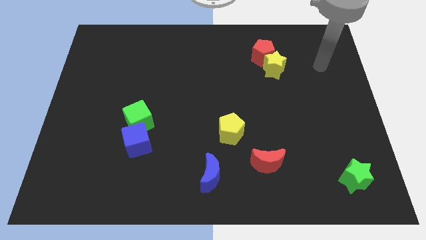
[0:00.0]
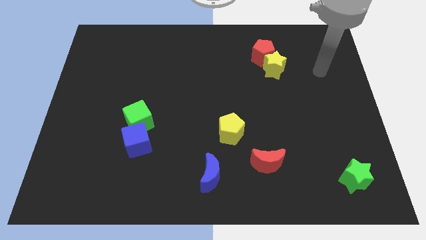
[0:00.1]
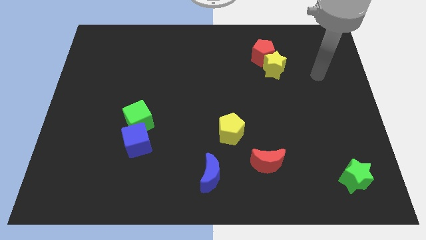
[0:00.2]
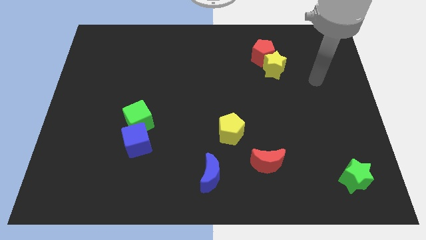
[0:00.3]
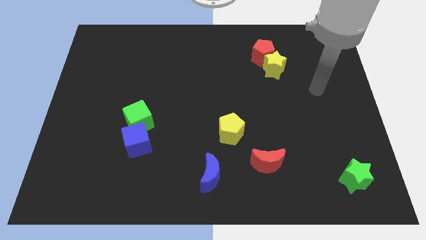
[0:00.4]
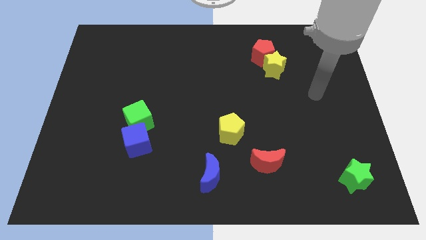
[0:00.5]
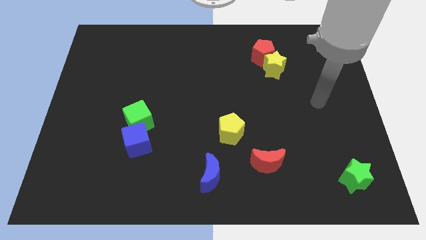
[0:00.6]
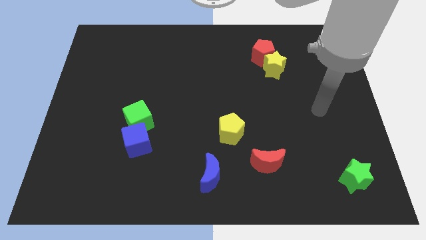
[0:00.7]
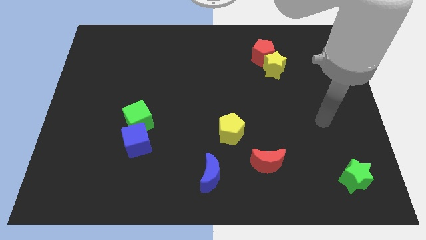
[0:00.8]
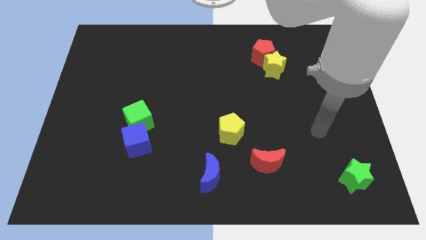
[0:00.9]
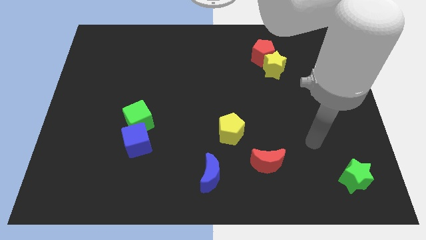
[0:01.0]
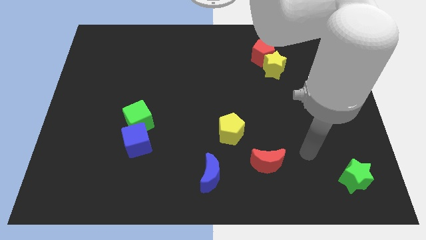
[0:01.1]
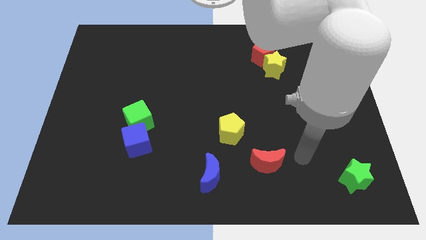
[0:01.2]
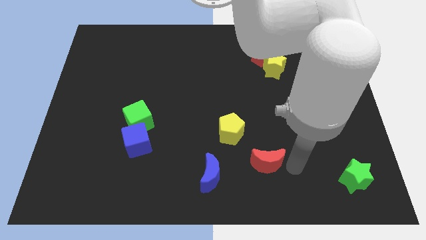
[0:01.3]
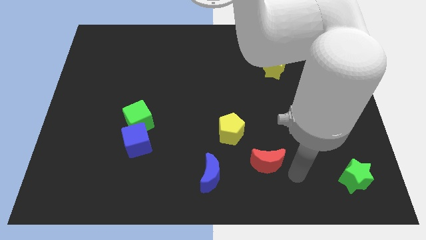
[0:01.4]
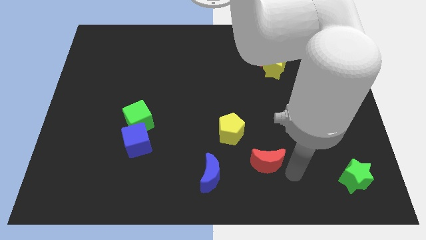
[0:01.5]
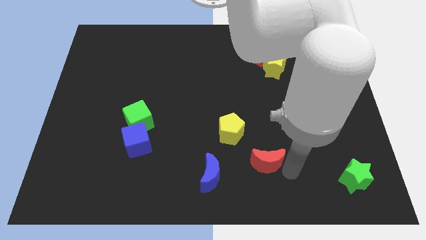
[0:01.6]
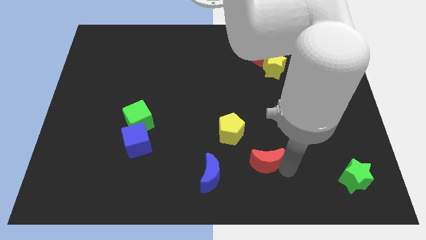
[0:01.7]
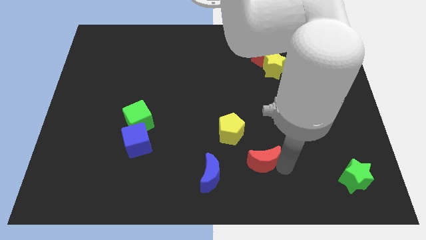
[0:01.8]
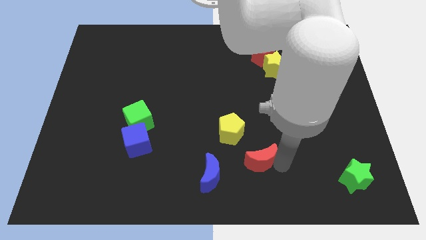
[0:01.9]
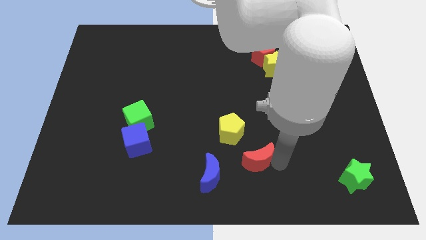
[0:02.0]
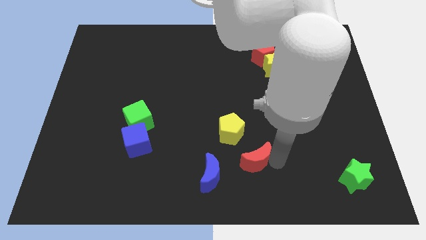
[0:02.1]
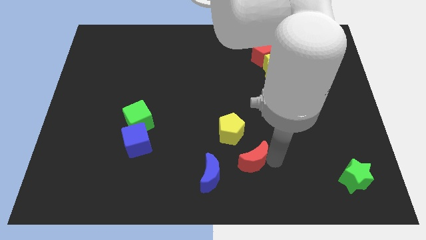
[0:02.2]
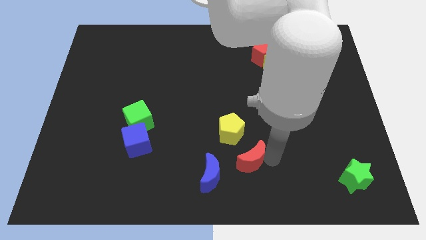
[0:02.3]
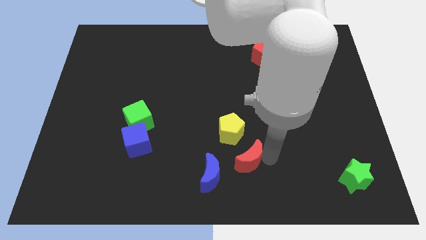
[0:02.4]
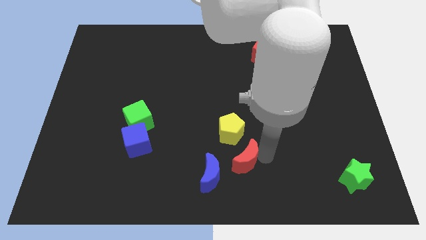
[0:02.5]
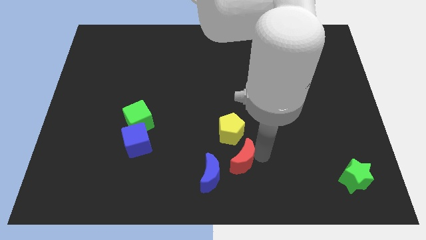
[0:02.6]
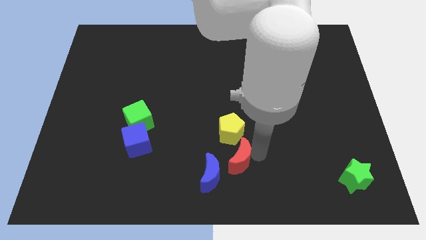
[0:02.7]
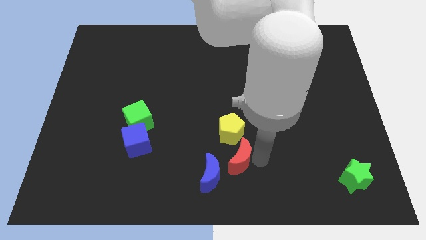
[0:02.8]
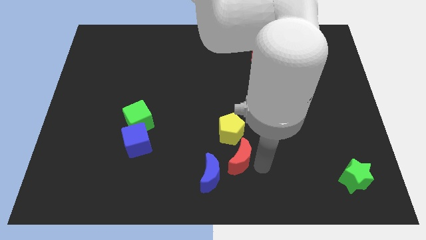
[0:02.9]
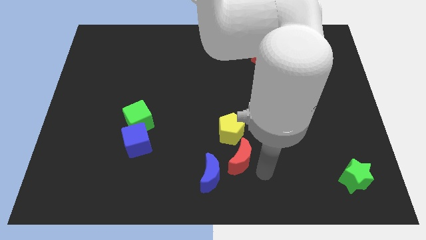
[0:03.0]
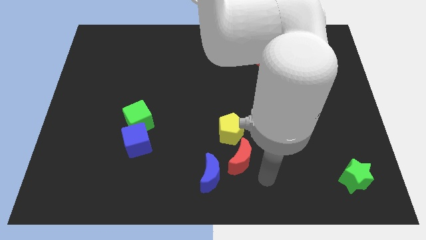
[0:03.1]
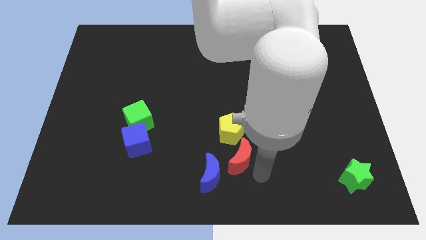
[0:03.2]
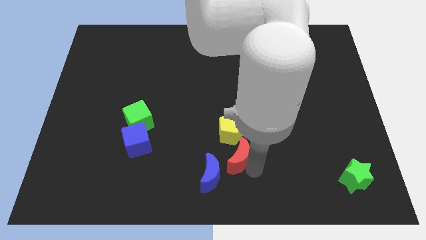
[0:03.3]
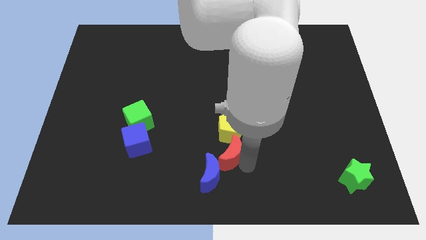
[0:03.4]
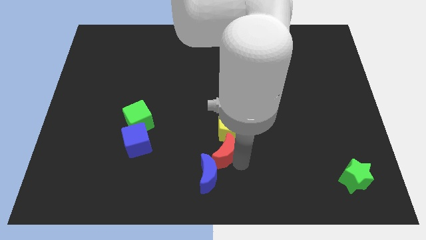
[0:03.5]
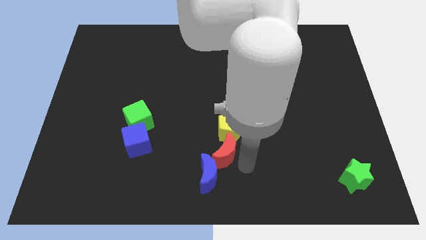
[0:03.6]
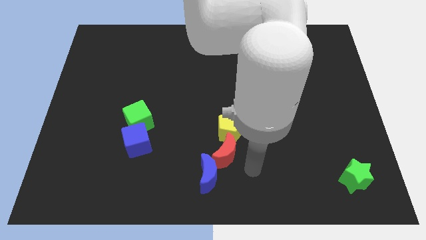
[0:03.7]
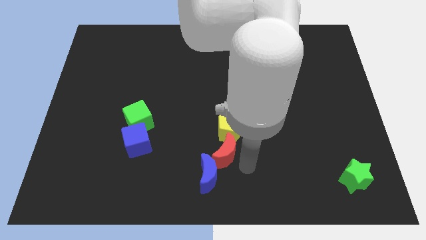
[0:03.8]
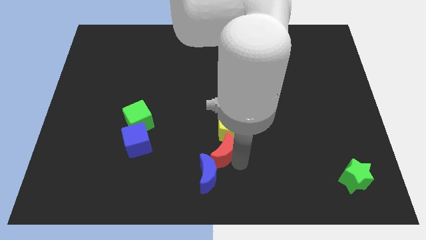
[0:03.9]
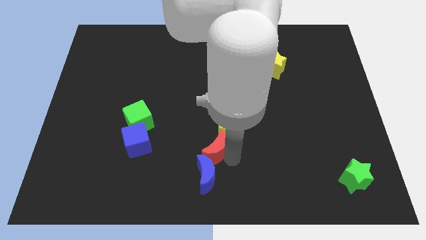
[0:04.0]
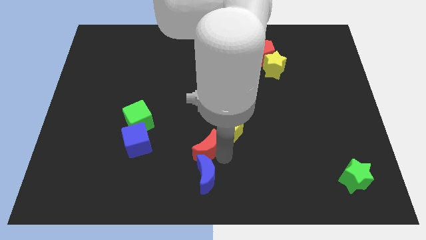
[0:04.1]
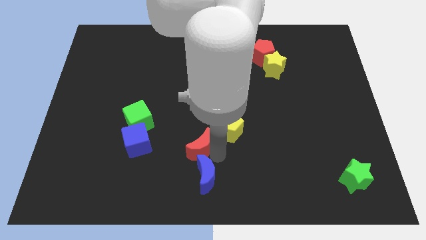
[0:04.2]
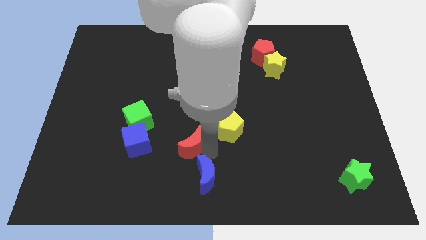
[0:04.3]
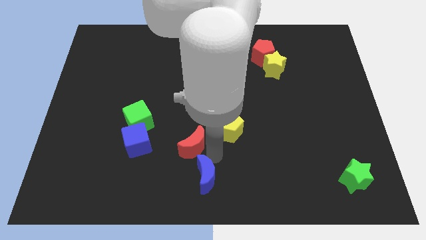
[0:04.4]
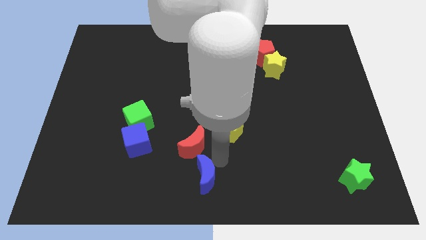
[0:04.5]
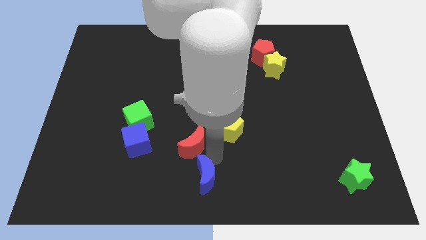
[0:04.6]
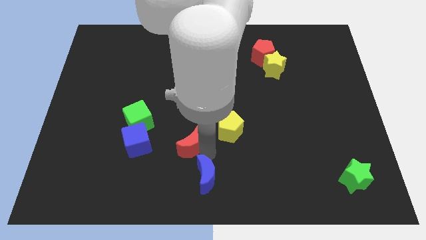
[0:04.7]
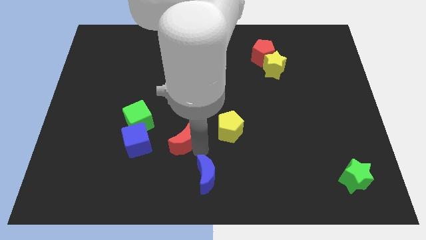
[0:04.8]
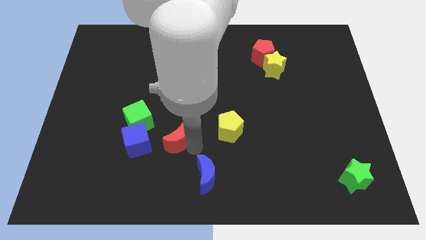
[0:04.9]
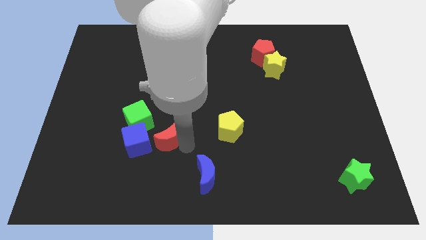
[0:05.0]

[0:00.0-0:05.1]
slide the red moon to the top right side of the blue cube

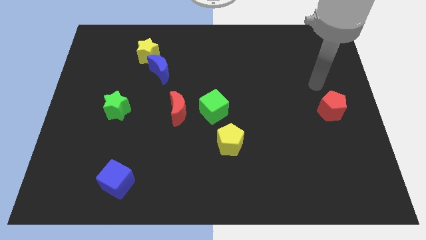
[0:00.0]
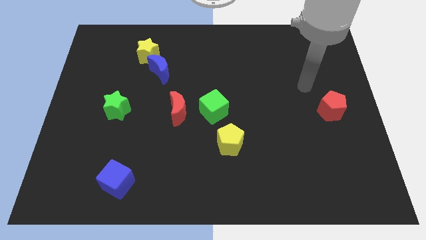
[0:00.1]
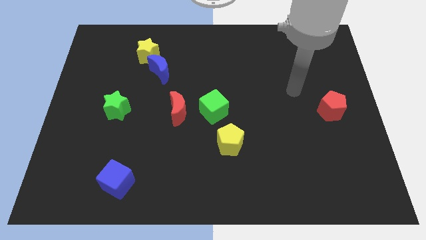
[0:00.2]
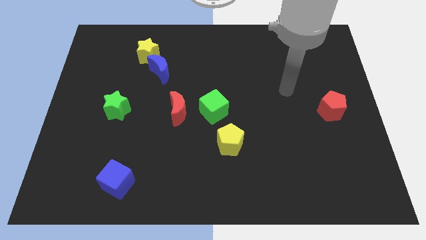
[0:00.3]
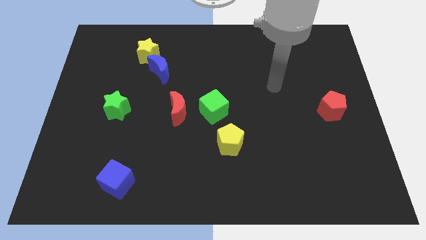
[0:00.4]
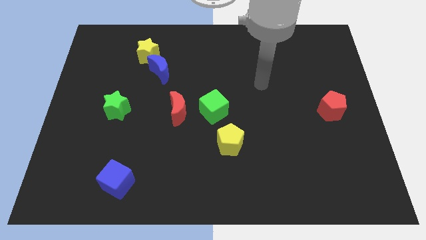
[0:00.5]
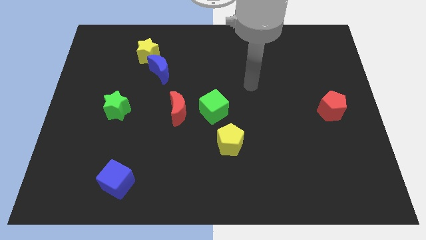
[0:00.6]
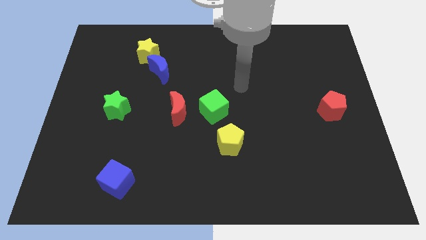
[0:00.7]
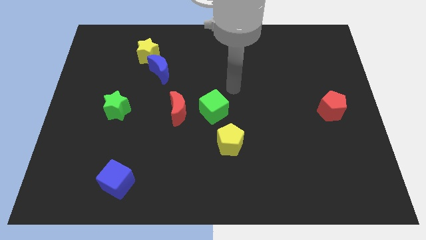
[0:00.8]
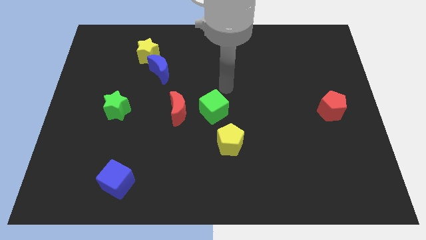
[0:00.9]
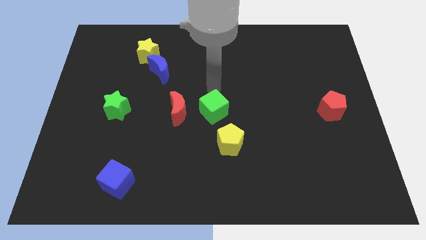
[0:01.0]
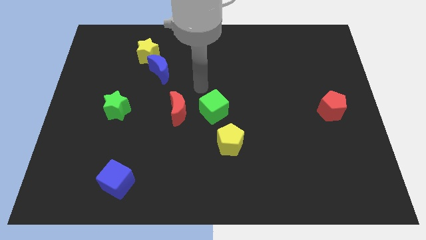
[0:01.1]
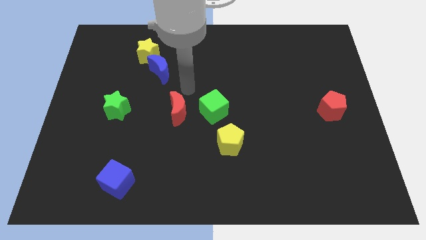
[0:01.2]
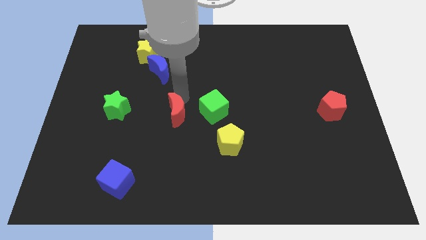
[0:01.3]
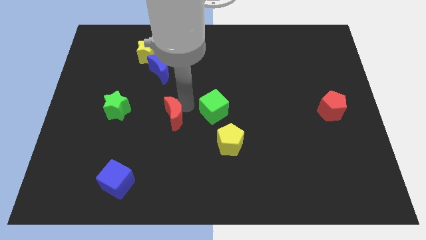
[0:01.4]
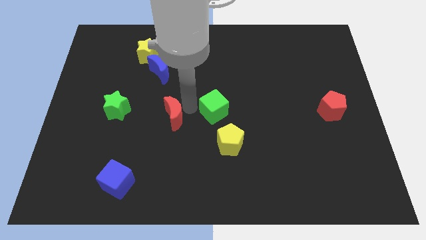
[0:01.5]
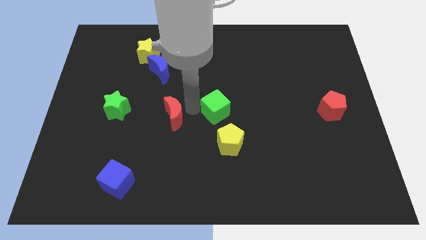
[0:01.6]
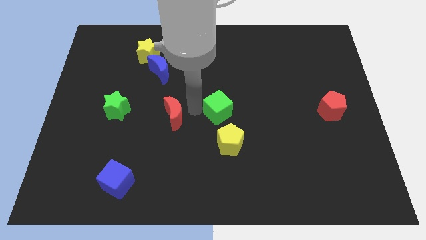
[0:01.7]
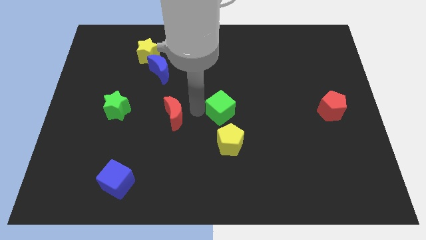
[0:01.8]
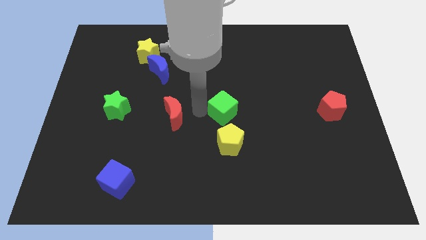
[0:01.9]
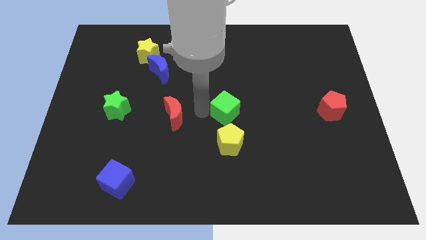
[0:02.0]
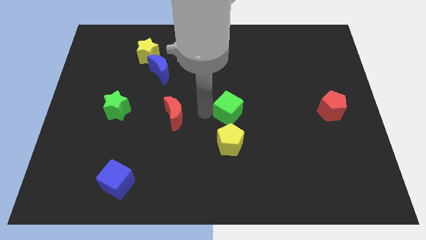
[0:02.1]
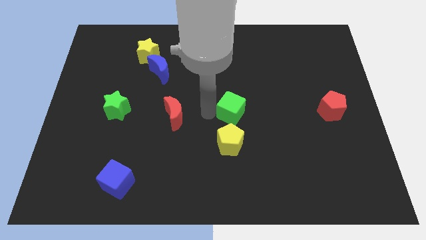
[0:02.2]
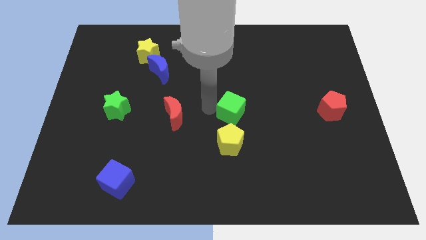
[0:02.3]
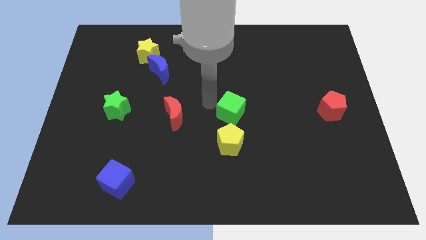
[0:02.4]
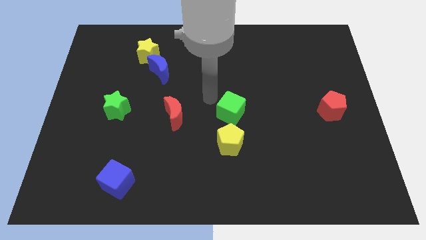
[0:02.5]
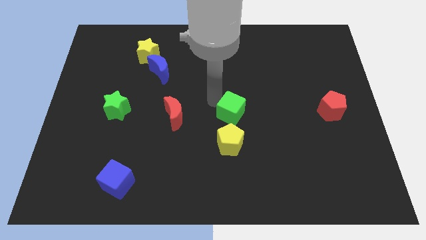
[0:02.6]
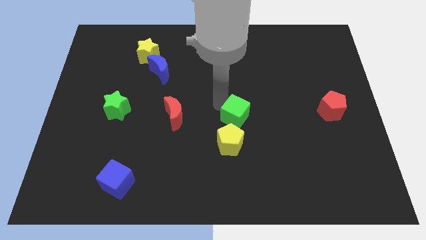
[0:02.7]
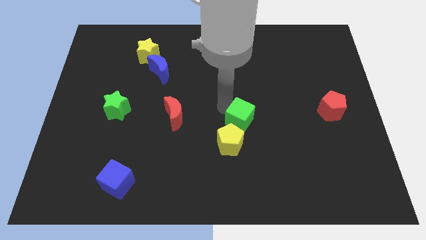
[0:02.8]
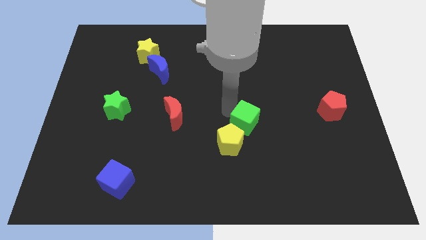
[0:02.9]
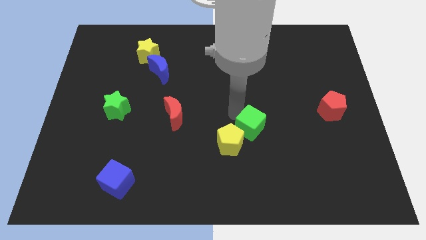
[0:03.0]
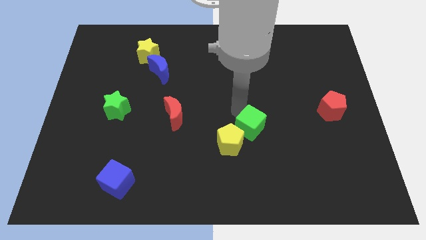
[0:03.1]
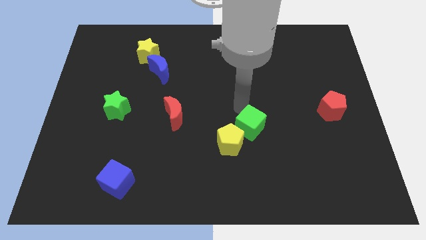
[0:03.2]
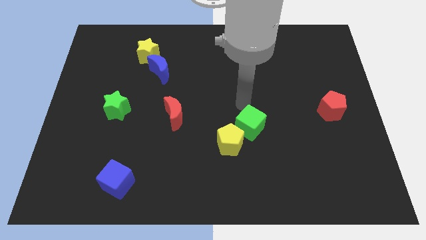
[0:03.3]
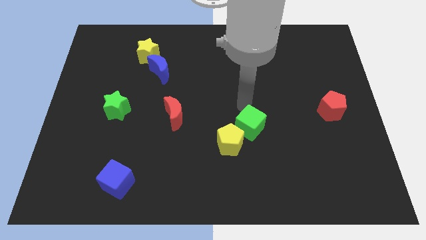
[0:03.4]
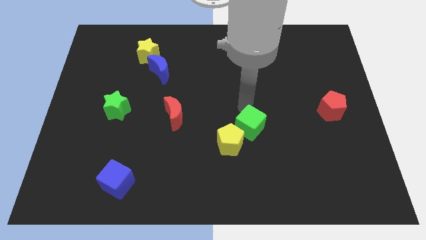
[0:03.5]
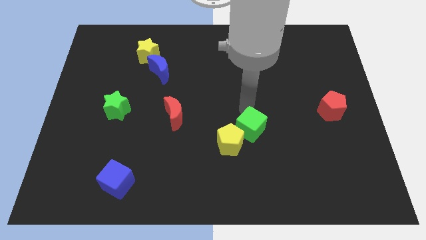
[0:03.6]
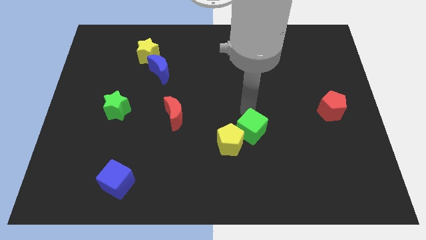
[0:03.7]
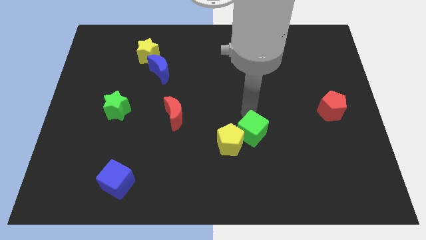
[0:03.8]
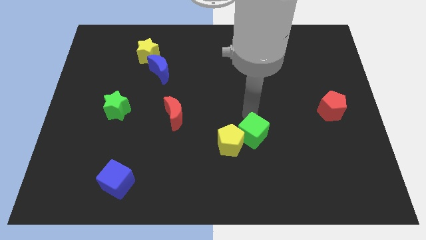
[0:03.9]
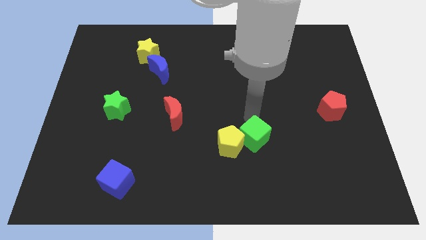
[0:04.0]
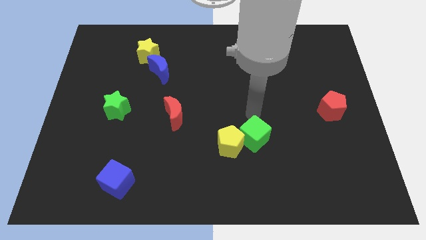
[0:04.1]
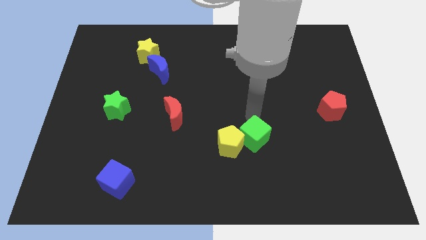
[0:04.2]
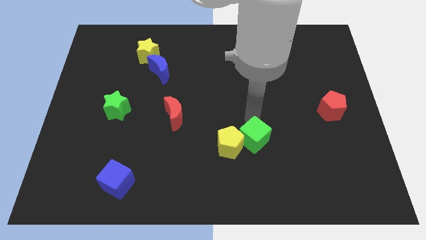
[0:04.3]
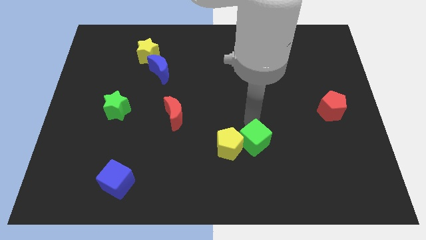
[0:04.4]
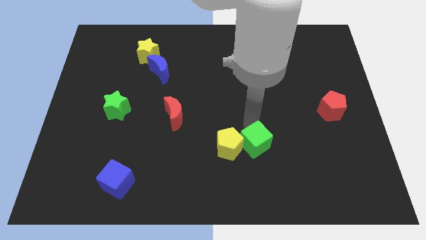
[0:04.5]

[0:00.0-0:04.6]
put the green cube to the bottom right side of the yellow pentagon
